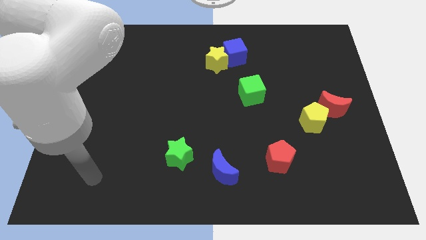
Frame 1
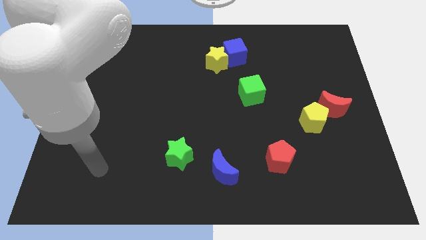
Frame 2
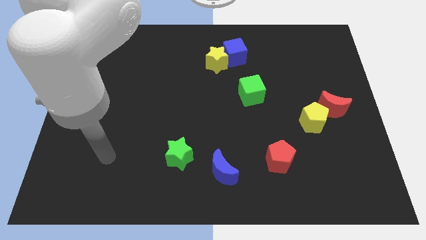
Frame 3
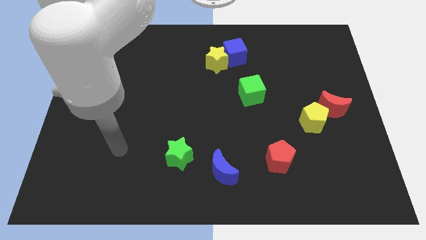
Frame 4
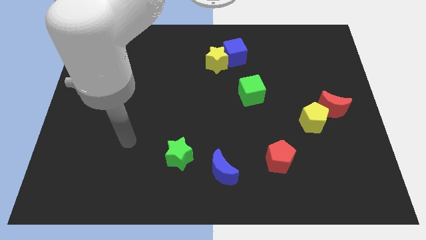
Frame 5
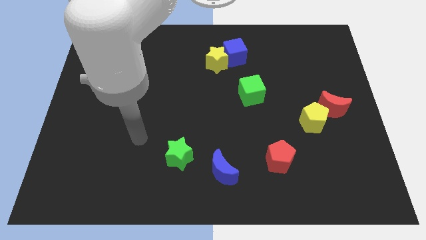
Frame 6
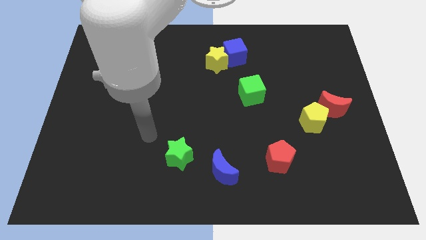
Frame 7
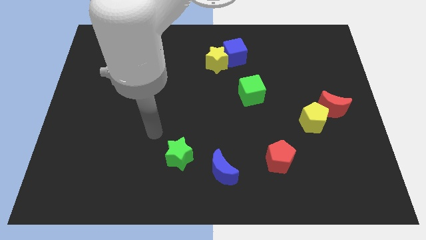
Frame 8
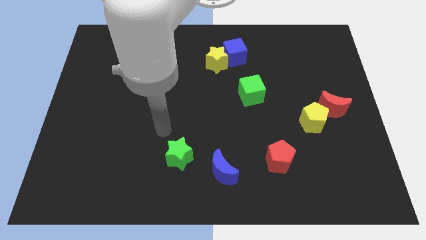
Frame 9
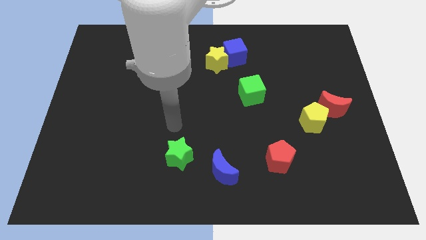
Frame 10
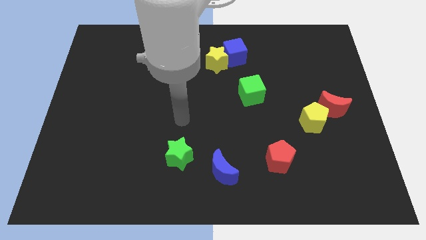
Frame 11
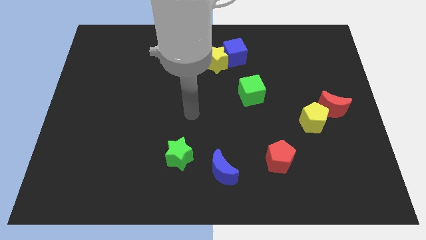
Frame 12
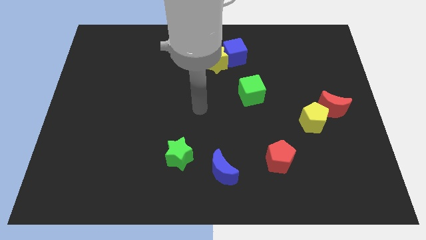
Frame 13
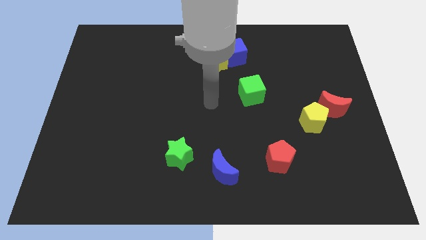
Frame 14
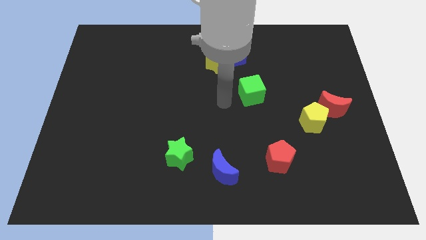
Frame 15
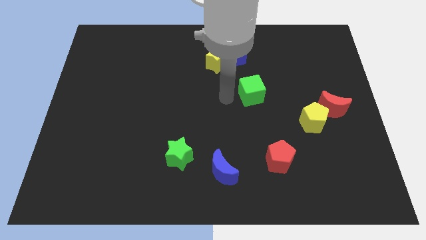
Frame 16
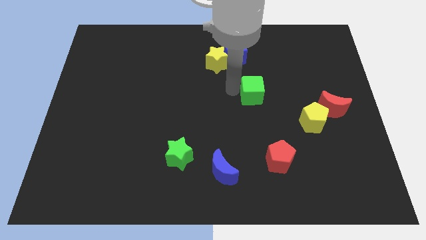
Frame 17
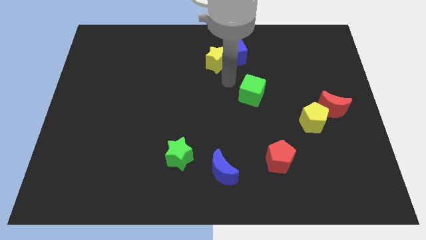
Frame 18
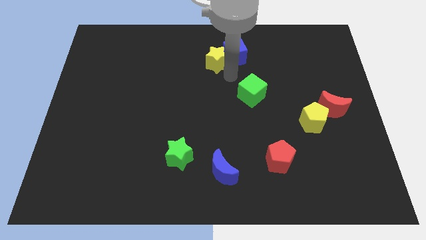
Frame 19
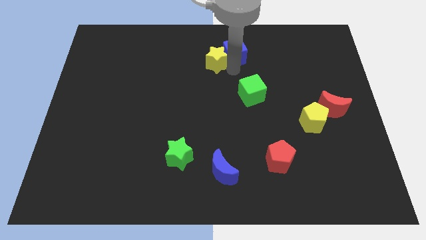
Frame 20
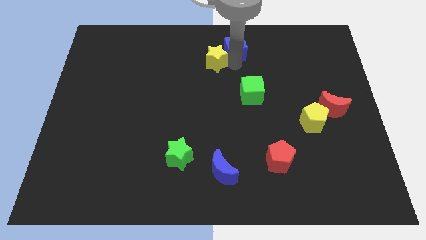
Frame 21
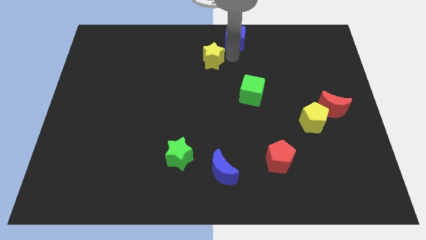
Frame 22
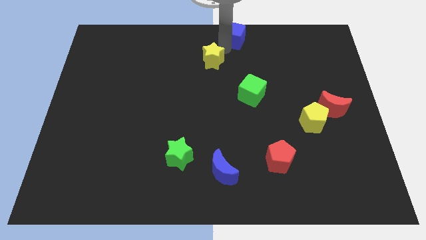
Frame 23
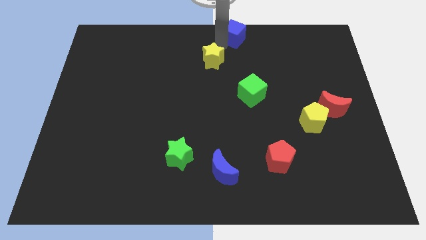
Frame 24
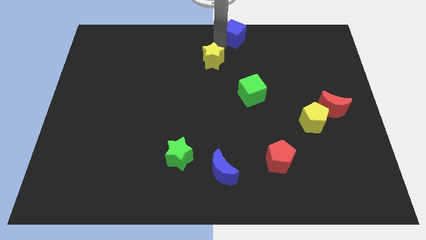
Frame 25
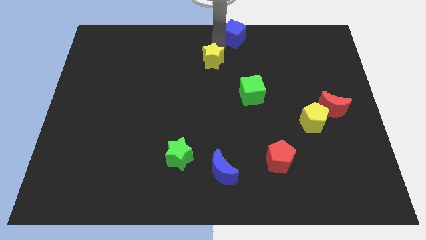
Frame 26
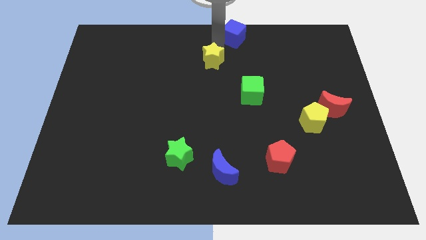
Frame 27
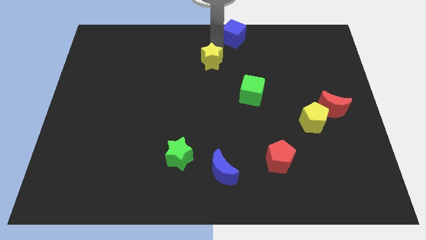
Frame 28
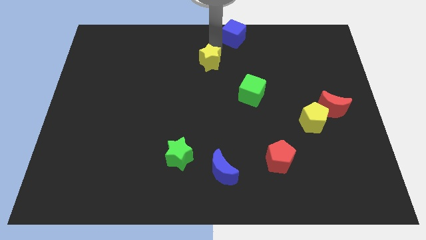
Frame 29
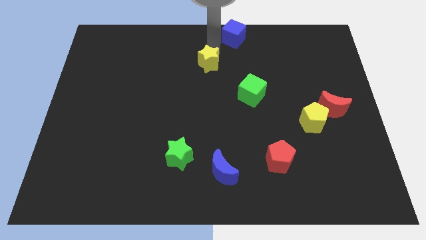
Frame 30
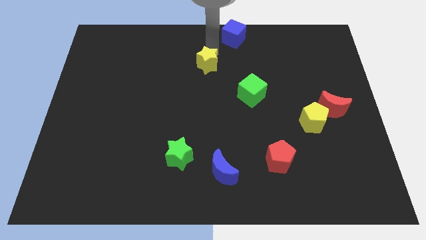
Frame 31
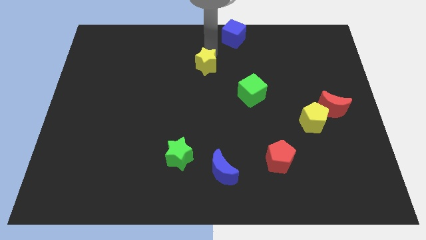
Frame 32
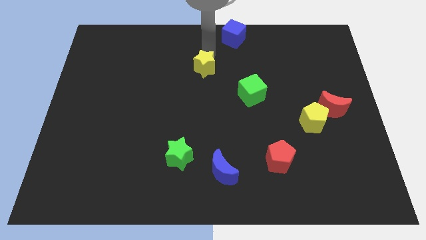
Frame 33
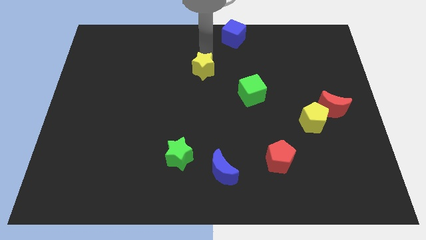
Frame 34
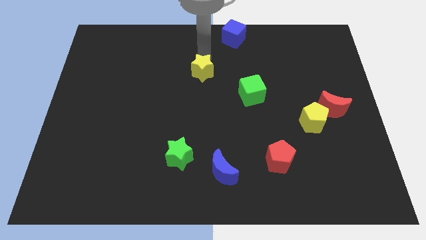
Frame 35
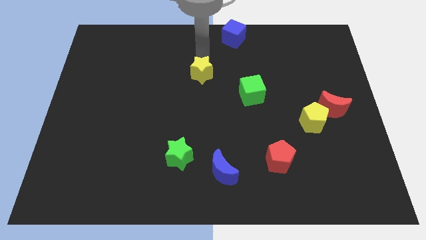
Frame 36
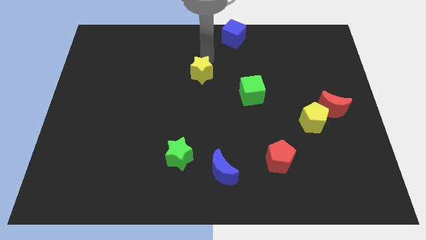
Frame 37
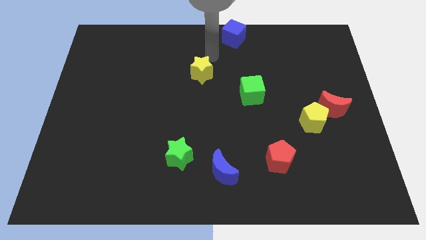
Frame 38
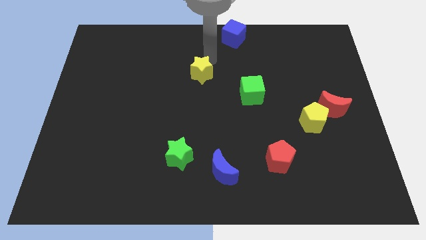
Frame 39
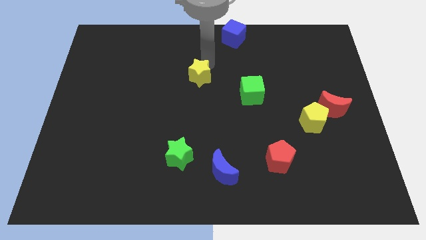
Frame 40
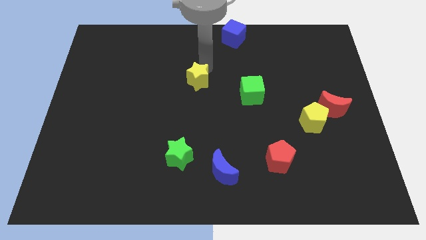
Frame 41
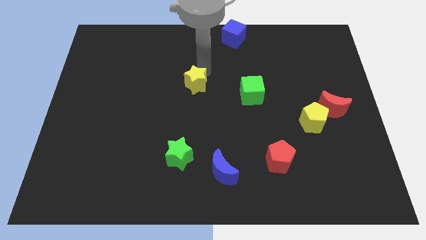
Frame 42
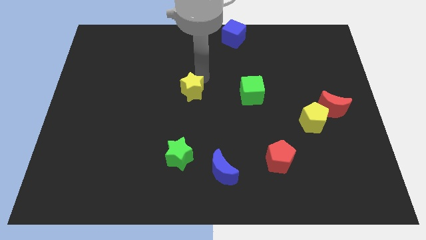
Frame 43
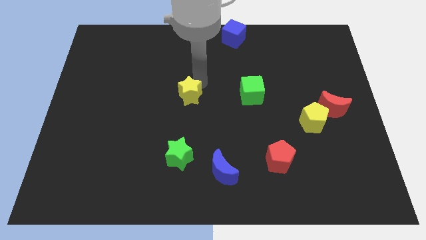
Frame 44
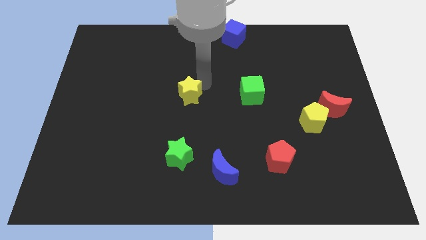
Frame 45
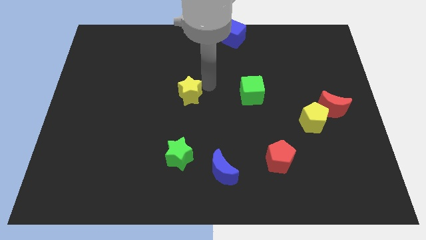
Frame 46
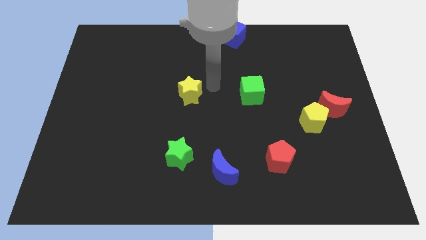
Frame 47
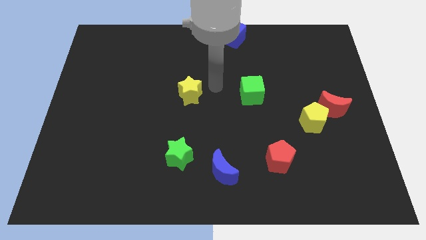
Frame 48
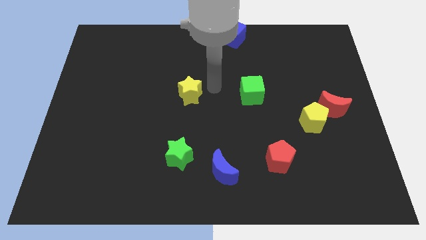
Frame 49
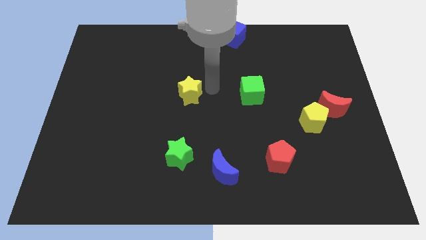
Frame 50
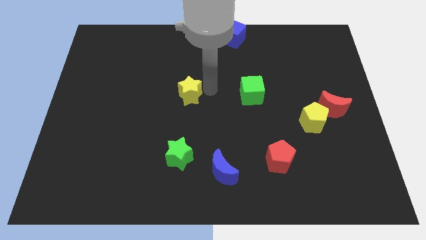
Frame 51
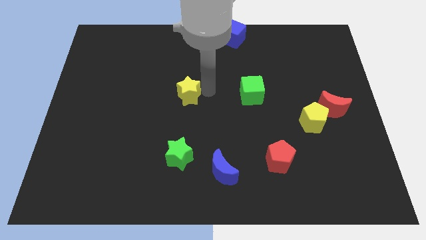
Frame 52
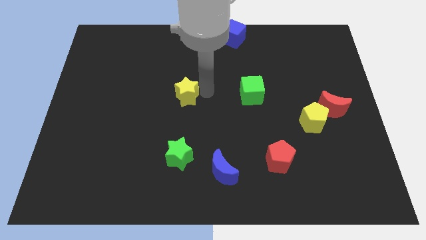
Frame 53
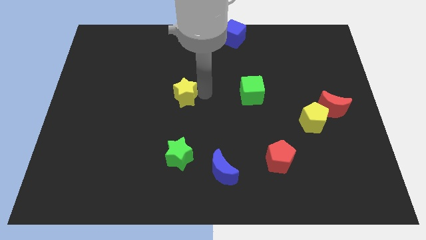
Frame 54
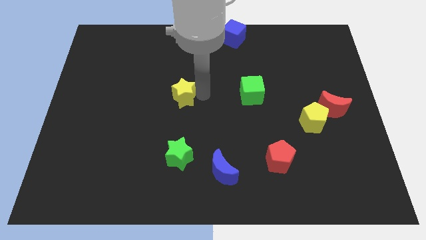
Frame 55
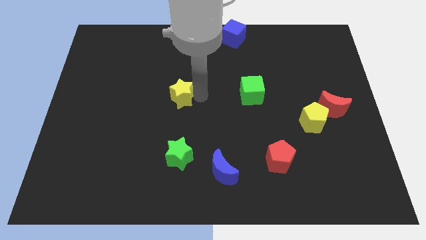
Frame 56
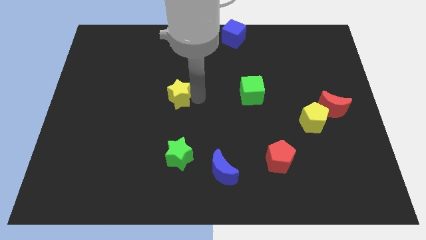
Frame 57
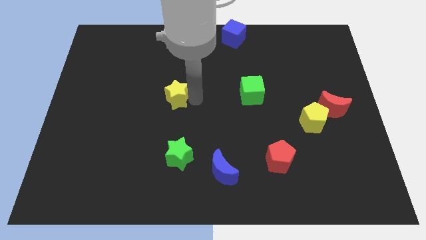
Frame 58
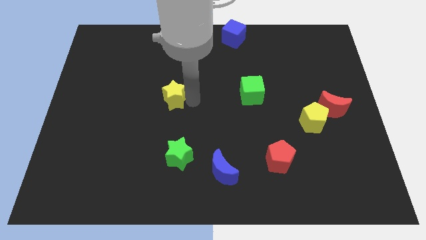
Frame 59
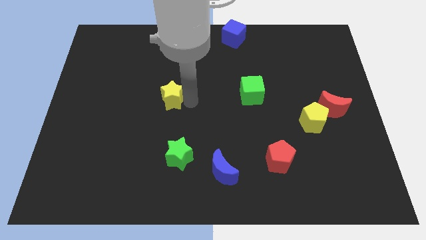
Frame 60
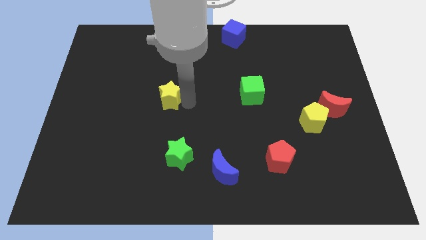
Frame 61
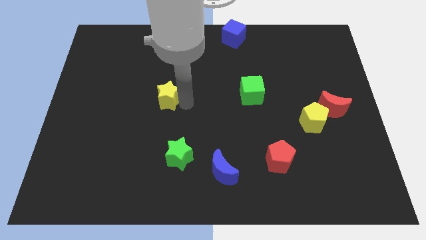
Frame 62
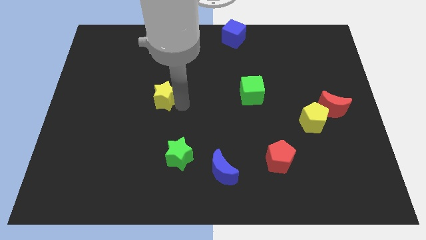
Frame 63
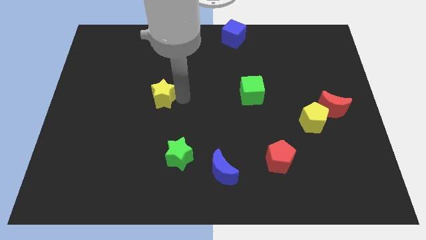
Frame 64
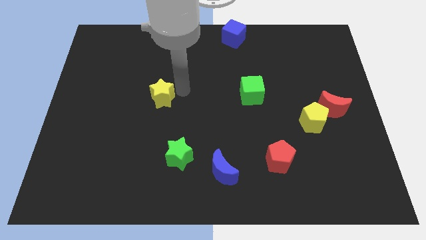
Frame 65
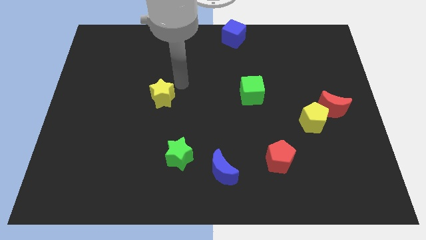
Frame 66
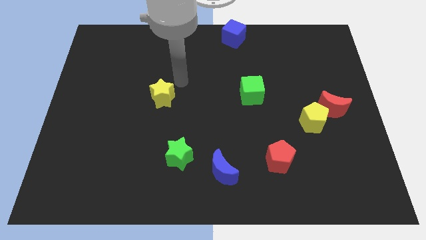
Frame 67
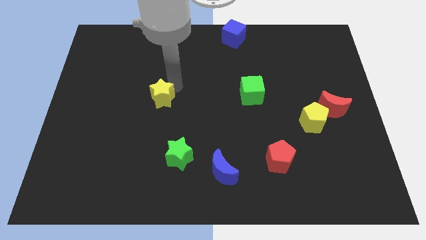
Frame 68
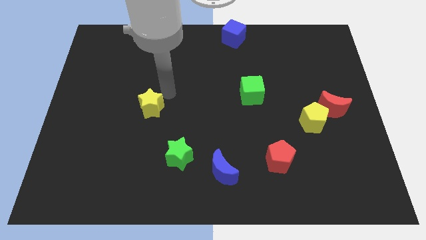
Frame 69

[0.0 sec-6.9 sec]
push the yellow star down and to the left diagonally

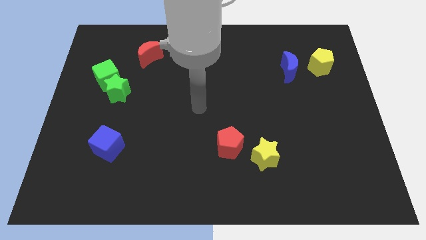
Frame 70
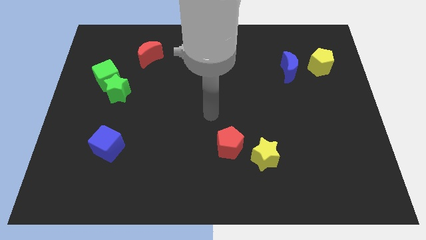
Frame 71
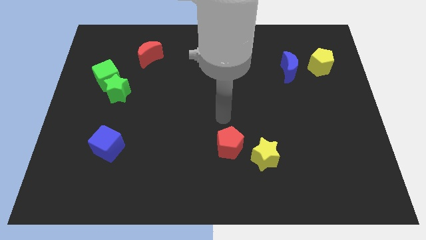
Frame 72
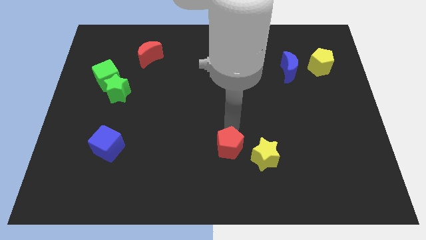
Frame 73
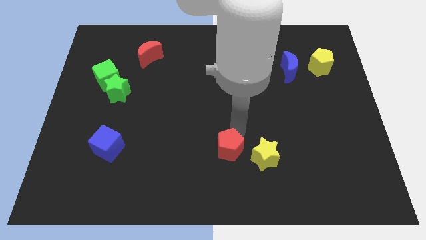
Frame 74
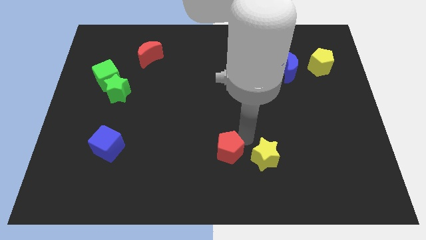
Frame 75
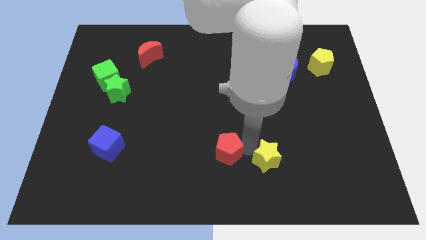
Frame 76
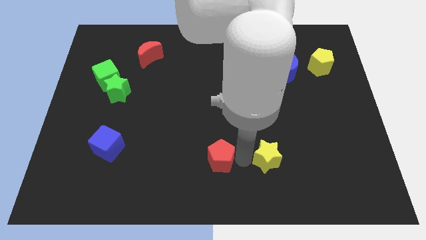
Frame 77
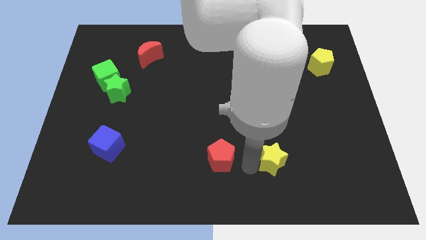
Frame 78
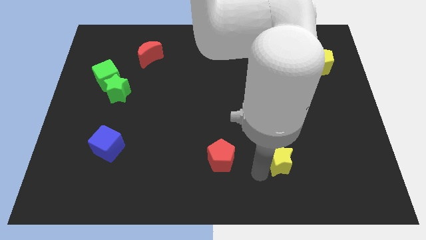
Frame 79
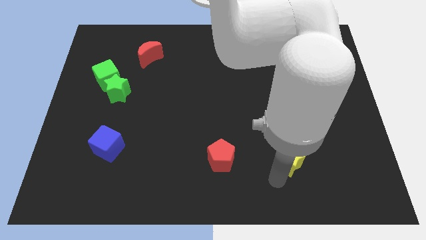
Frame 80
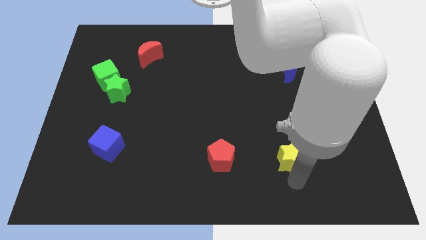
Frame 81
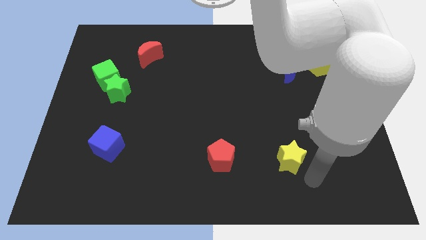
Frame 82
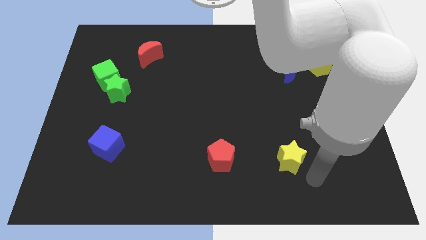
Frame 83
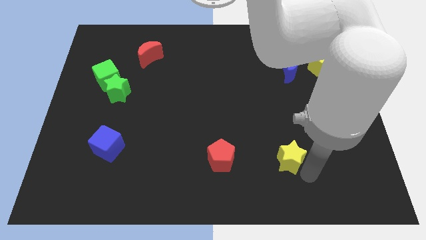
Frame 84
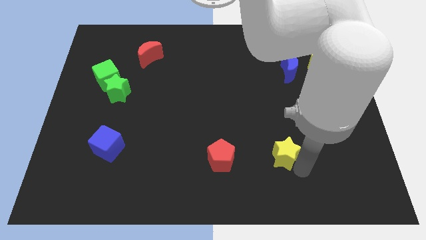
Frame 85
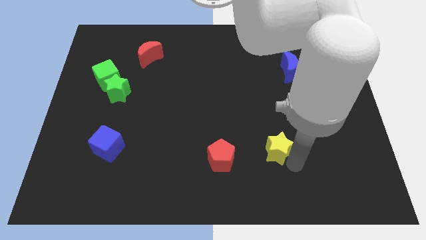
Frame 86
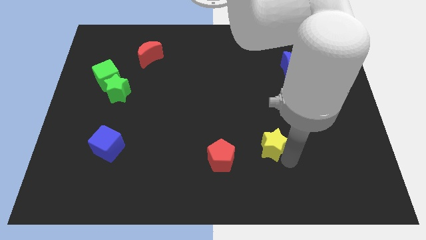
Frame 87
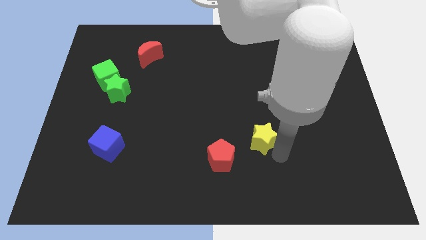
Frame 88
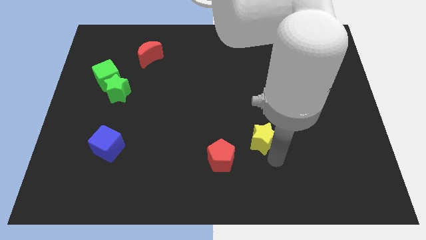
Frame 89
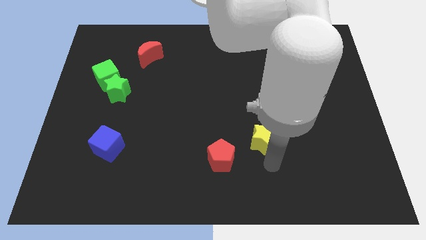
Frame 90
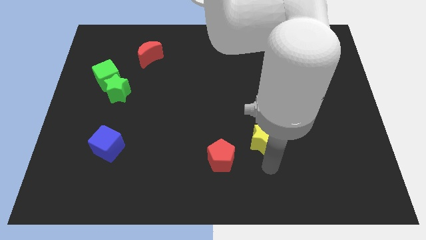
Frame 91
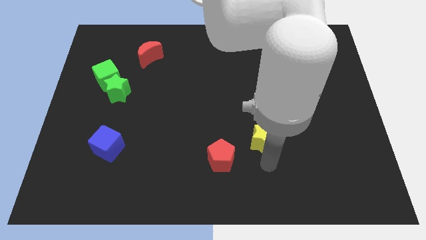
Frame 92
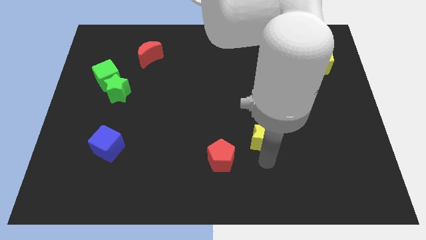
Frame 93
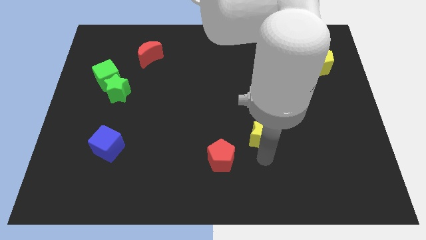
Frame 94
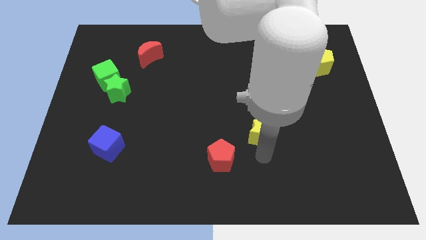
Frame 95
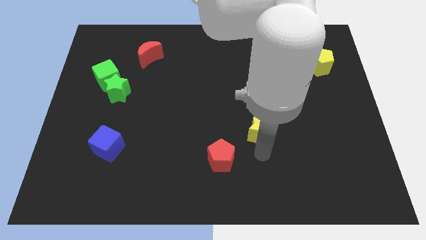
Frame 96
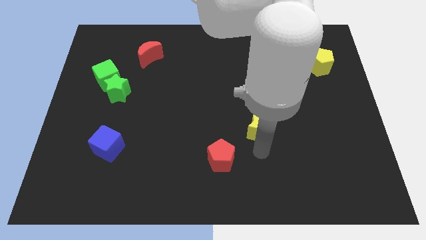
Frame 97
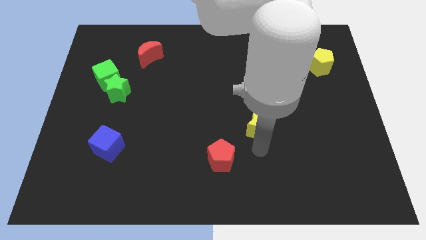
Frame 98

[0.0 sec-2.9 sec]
slide the yellow star slightly upwards
